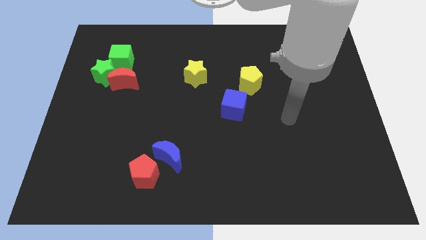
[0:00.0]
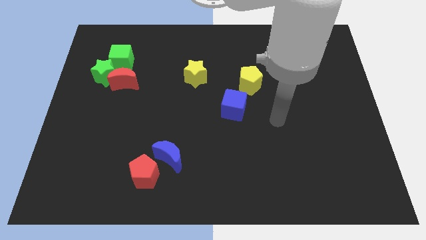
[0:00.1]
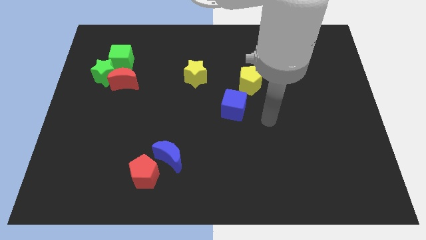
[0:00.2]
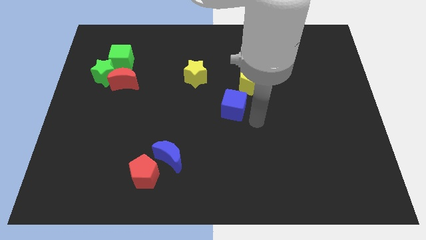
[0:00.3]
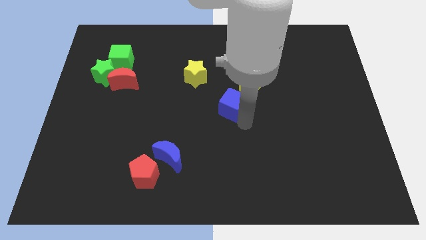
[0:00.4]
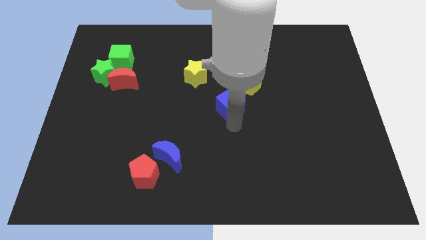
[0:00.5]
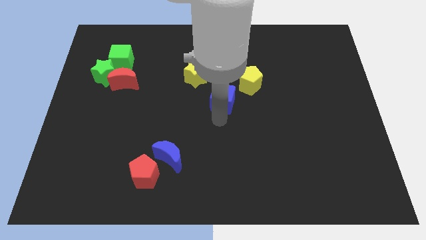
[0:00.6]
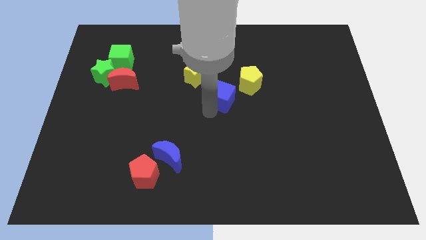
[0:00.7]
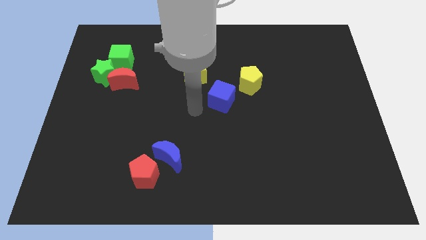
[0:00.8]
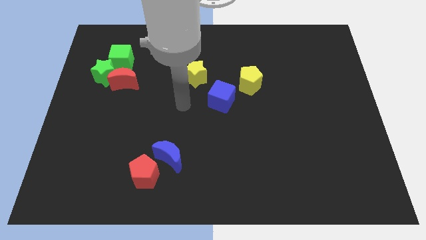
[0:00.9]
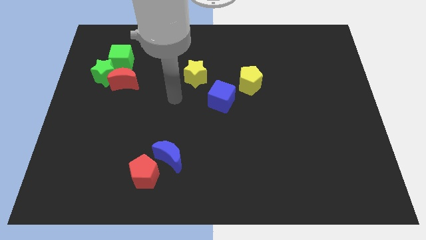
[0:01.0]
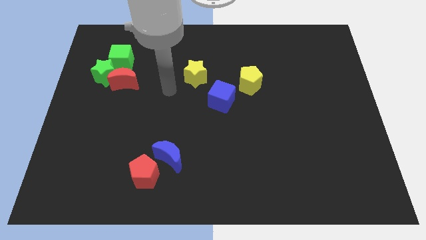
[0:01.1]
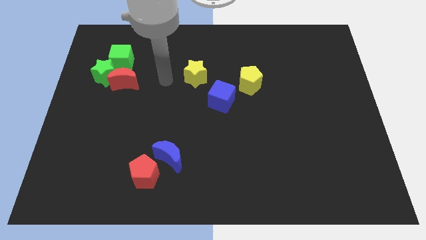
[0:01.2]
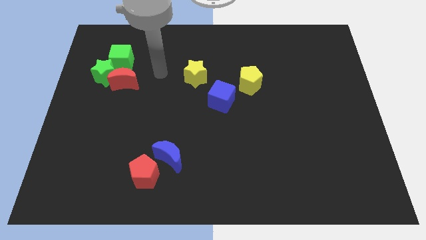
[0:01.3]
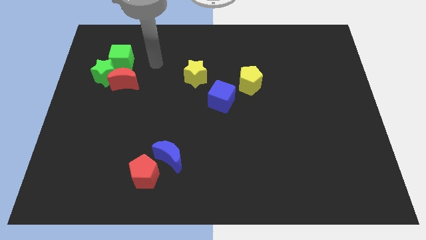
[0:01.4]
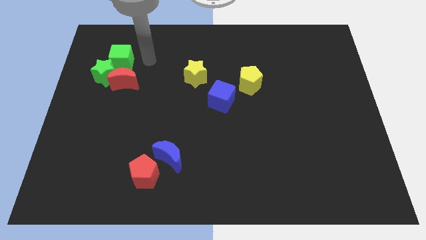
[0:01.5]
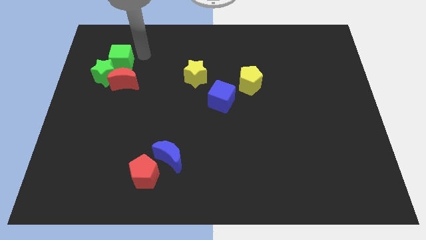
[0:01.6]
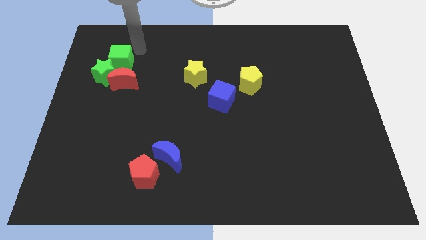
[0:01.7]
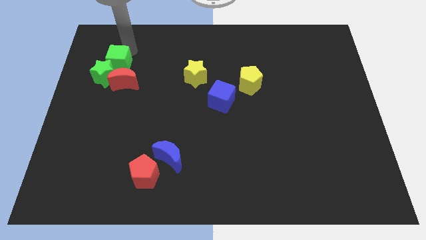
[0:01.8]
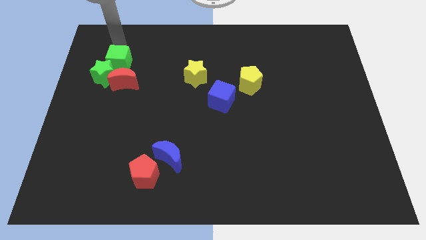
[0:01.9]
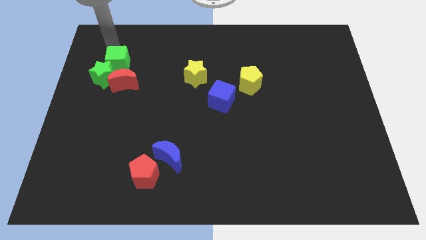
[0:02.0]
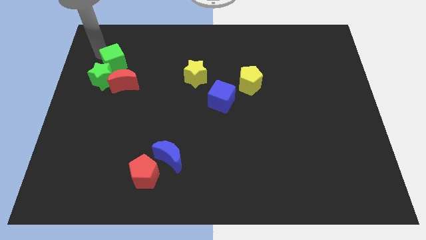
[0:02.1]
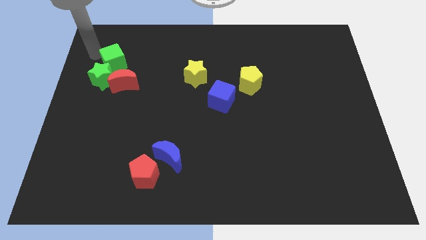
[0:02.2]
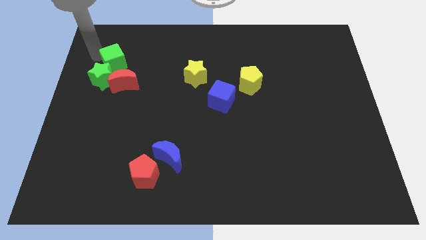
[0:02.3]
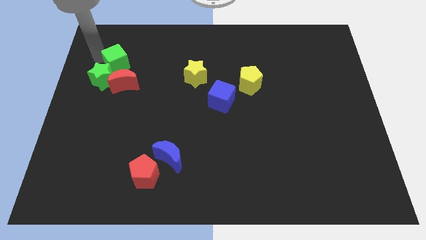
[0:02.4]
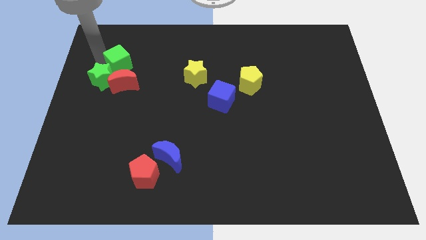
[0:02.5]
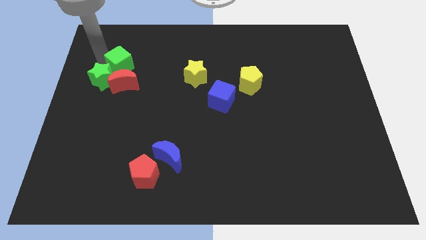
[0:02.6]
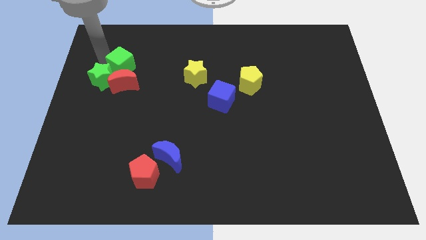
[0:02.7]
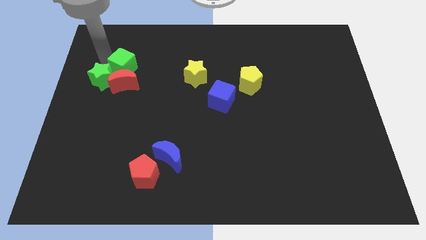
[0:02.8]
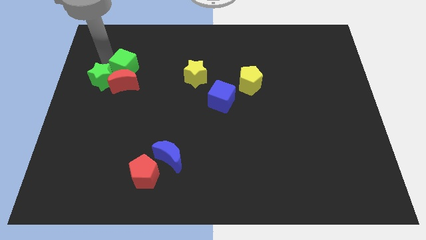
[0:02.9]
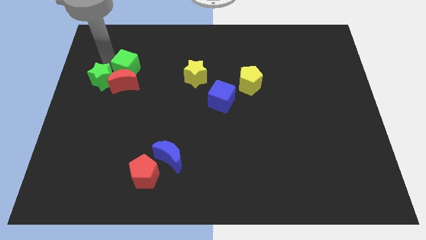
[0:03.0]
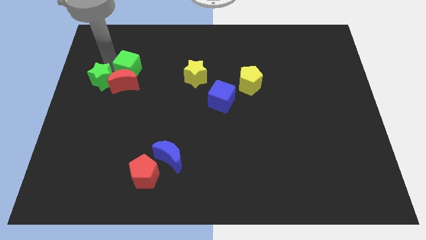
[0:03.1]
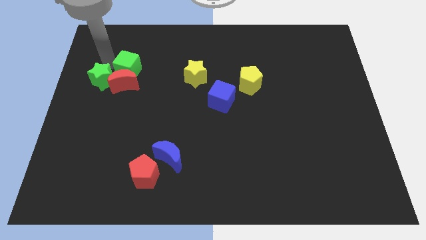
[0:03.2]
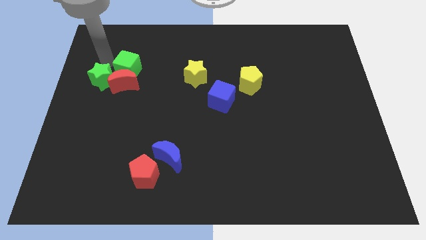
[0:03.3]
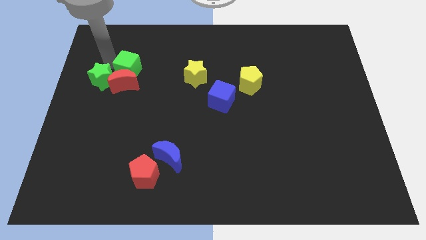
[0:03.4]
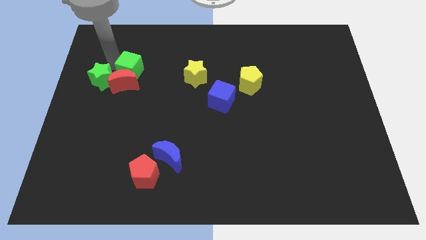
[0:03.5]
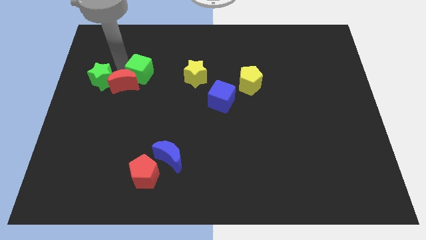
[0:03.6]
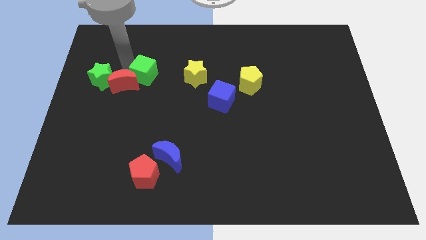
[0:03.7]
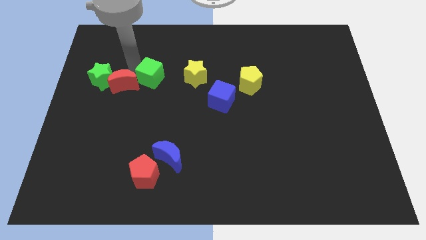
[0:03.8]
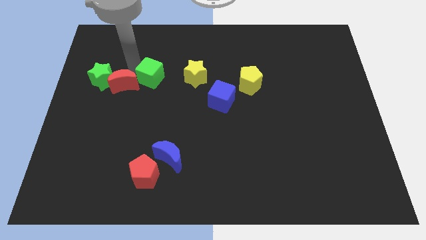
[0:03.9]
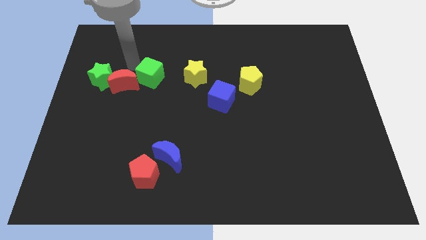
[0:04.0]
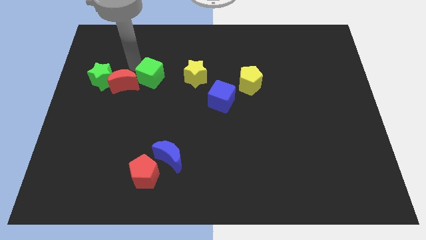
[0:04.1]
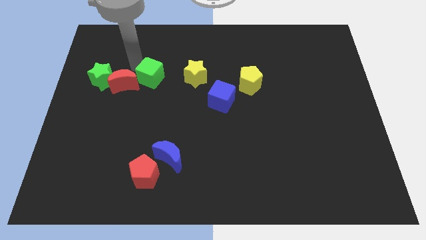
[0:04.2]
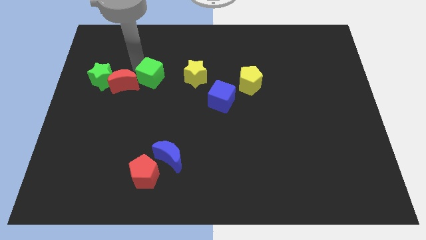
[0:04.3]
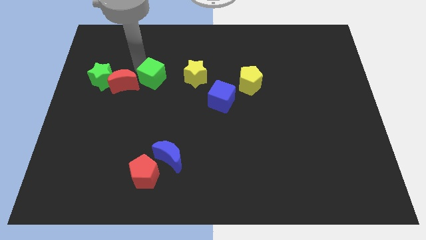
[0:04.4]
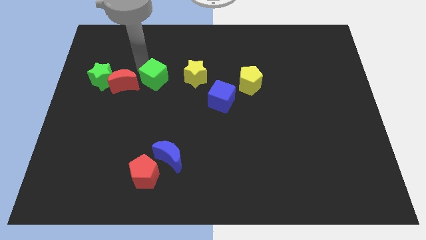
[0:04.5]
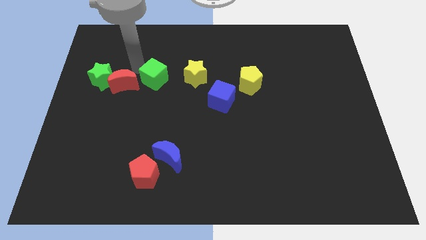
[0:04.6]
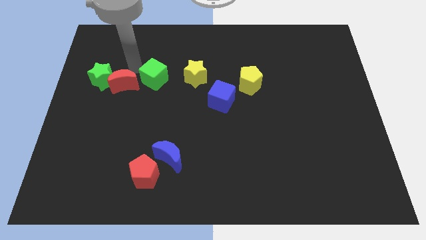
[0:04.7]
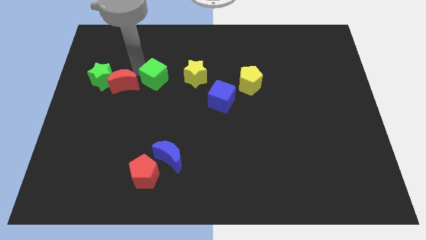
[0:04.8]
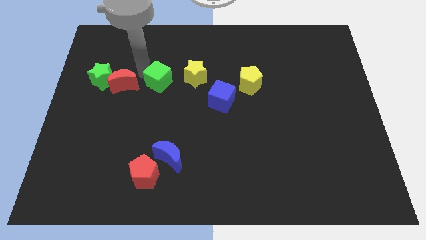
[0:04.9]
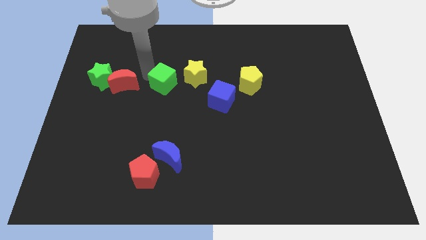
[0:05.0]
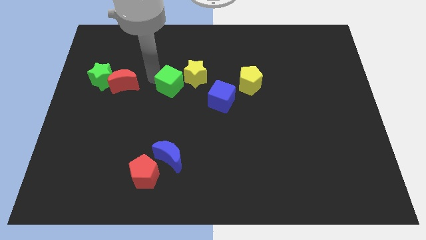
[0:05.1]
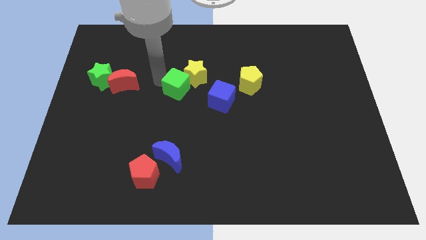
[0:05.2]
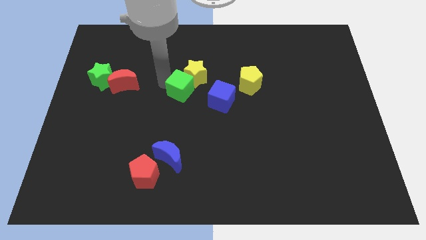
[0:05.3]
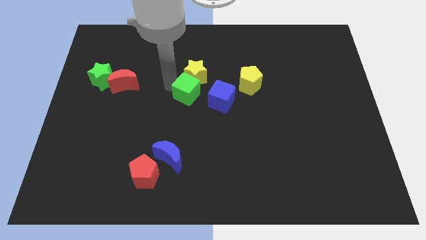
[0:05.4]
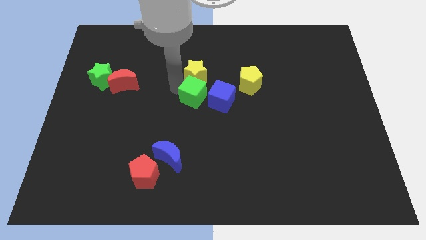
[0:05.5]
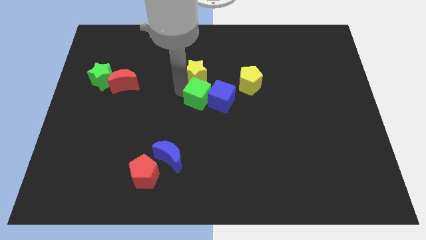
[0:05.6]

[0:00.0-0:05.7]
move the green cube towards the blue cube

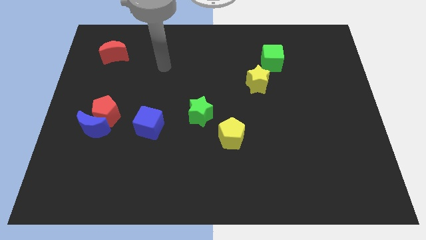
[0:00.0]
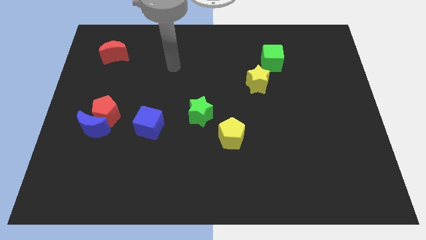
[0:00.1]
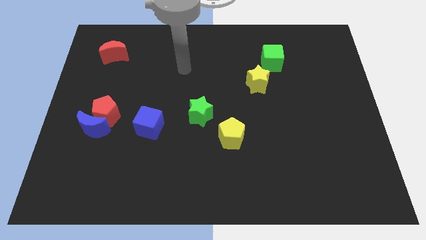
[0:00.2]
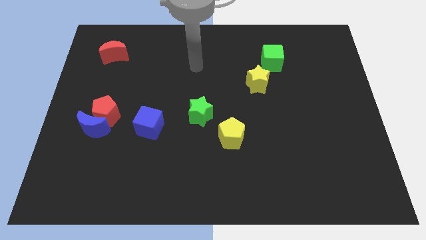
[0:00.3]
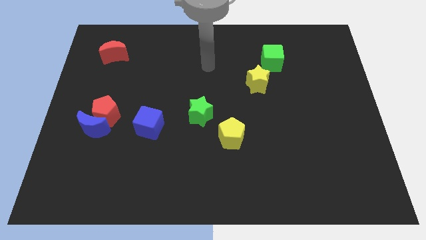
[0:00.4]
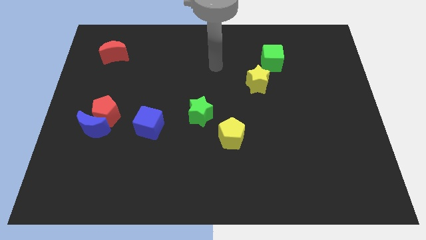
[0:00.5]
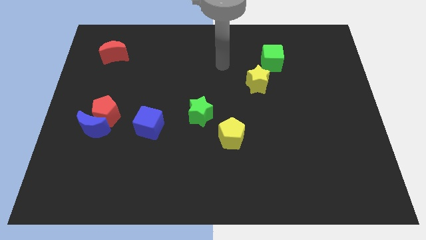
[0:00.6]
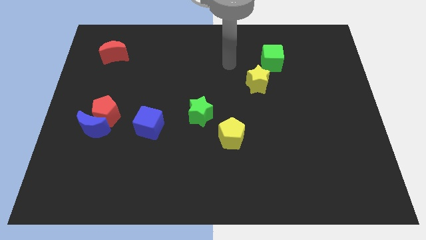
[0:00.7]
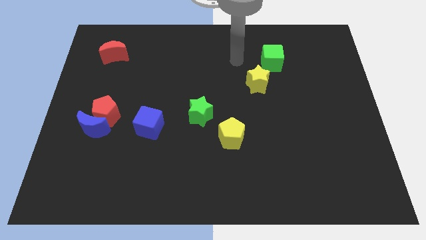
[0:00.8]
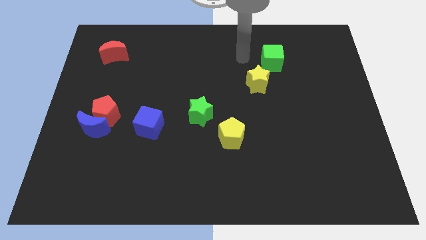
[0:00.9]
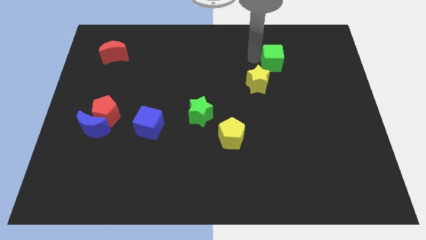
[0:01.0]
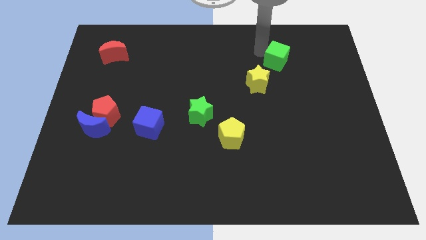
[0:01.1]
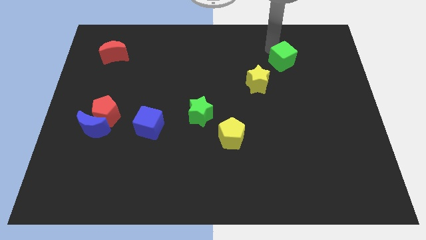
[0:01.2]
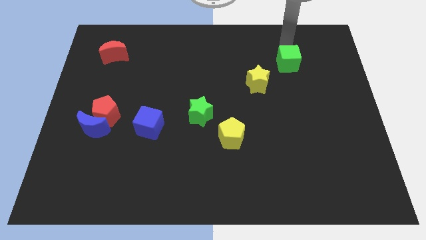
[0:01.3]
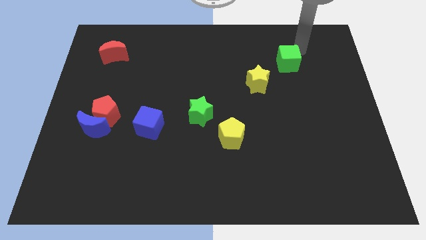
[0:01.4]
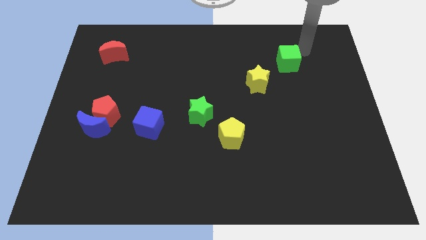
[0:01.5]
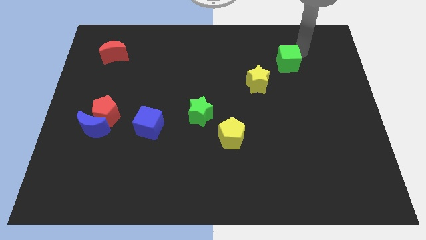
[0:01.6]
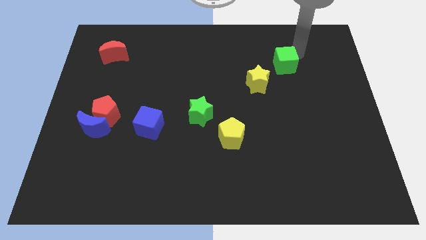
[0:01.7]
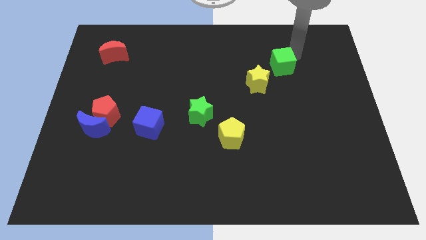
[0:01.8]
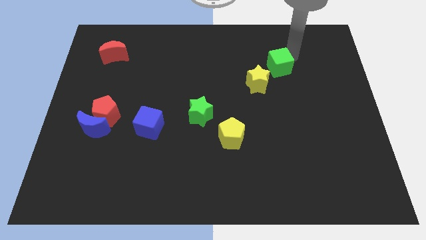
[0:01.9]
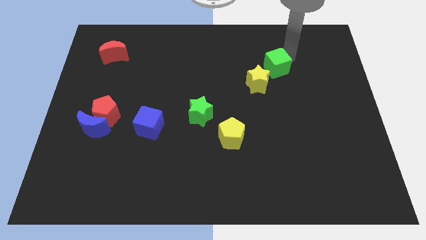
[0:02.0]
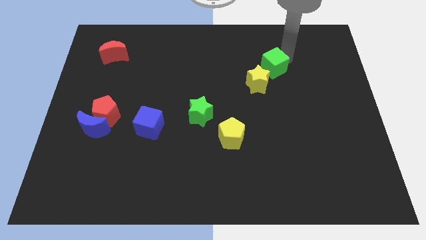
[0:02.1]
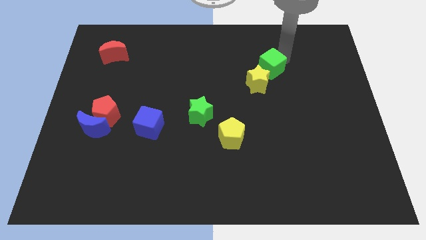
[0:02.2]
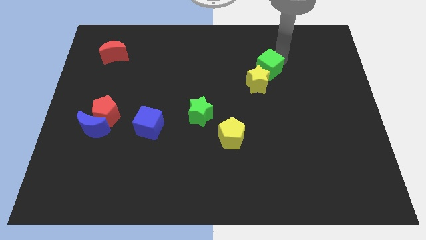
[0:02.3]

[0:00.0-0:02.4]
push the green cube towards the yellow star
